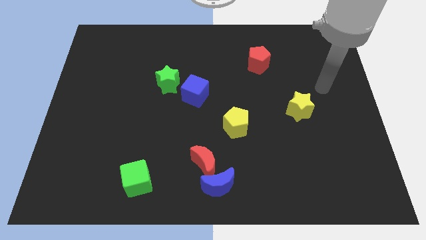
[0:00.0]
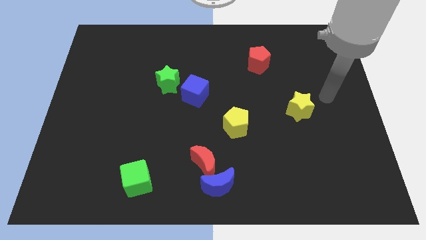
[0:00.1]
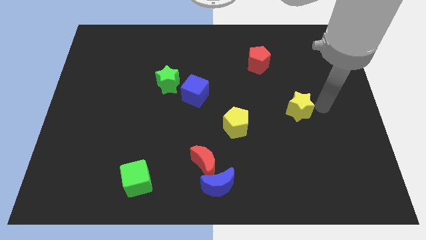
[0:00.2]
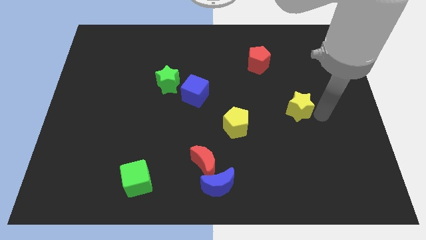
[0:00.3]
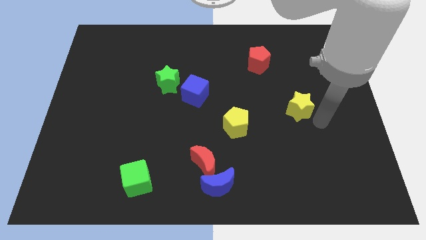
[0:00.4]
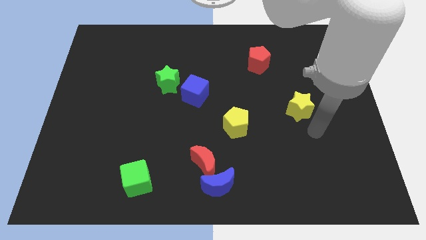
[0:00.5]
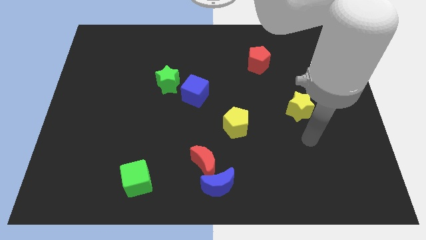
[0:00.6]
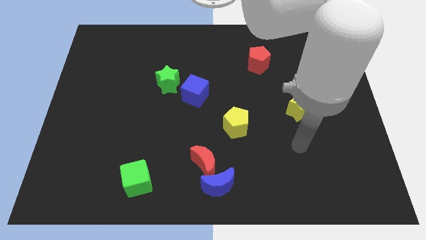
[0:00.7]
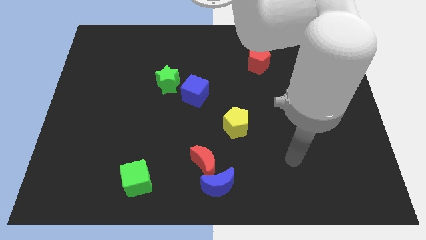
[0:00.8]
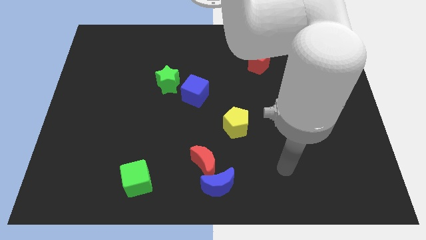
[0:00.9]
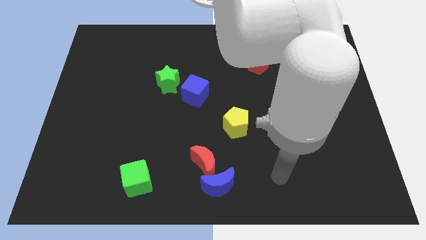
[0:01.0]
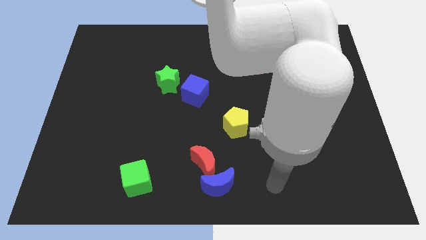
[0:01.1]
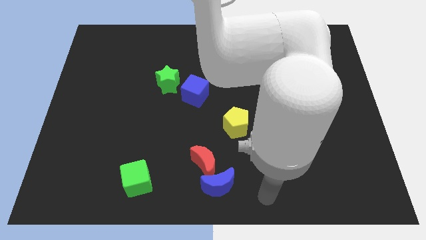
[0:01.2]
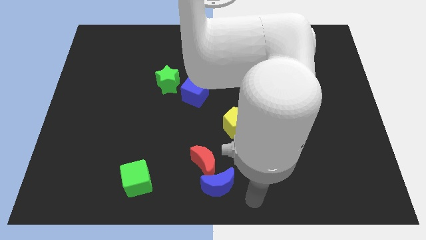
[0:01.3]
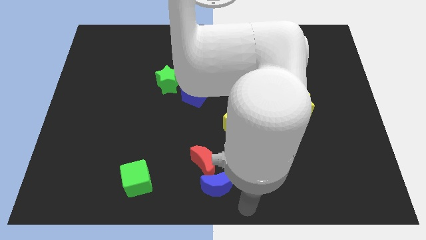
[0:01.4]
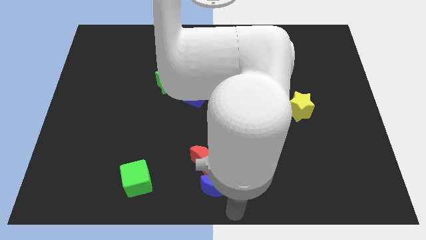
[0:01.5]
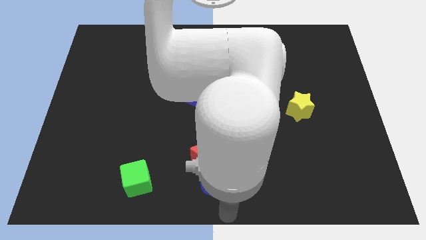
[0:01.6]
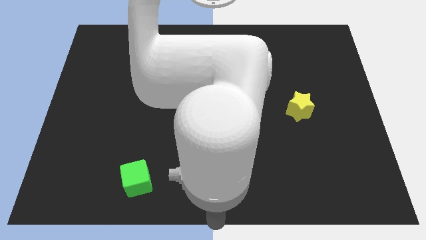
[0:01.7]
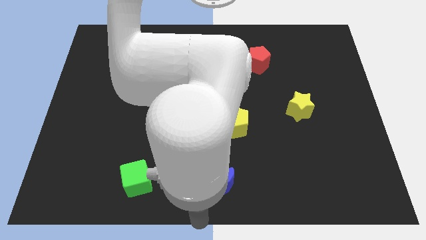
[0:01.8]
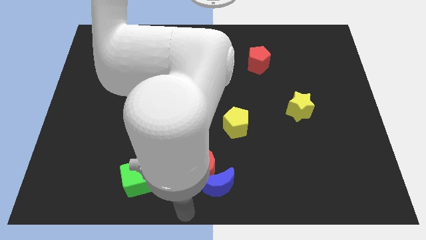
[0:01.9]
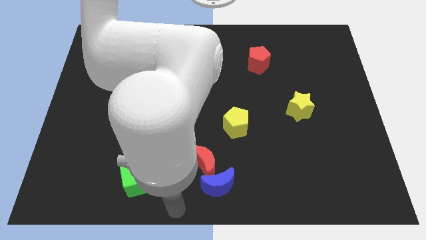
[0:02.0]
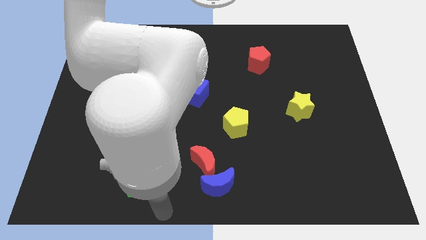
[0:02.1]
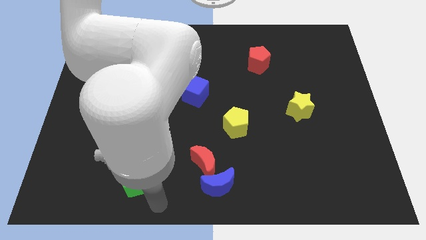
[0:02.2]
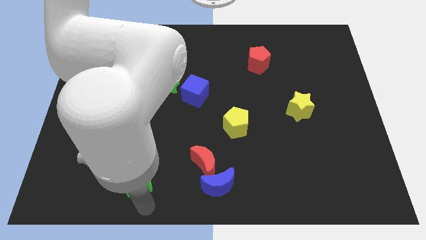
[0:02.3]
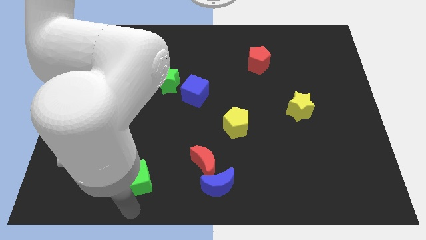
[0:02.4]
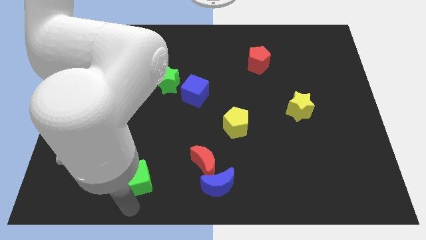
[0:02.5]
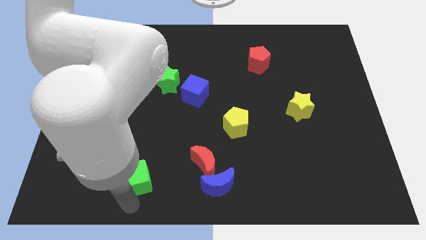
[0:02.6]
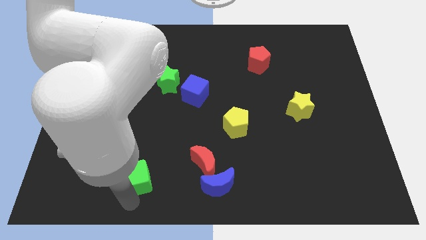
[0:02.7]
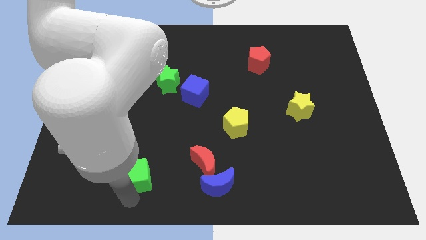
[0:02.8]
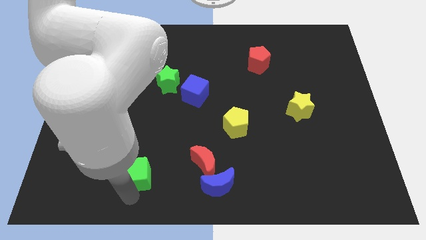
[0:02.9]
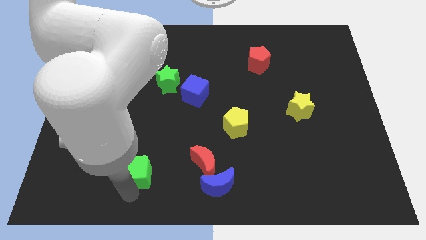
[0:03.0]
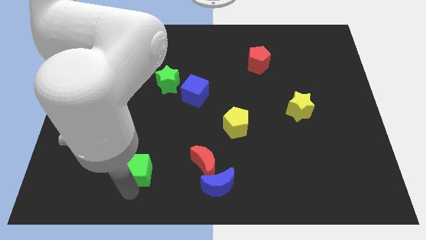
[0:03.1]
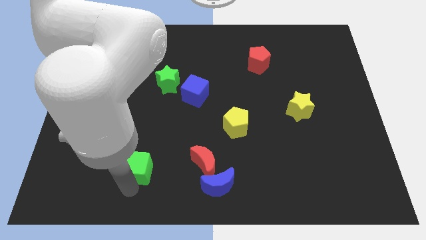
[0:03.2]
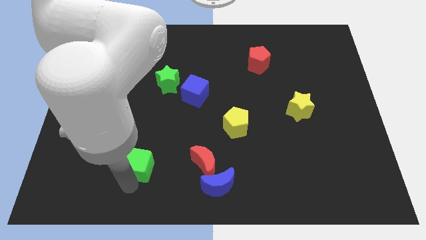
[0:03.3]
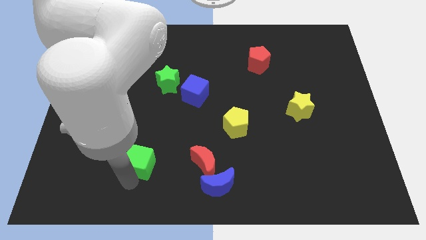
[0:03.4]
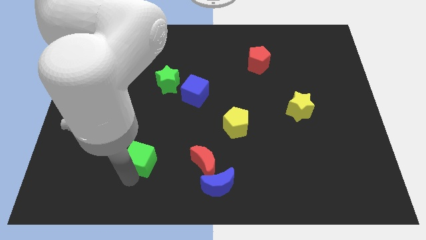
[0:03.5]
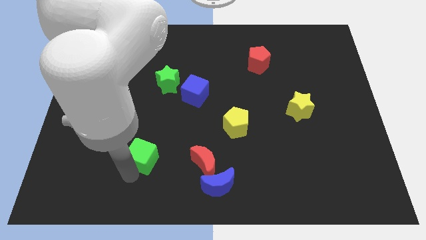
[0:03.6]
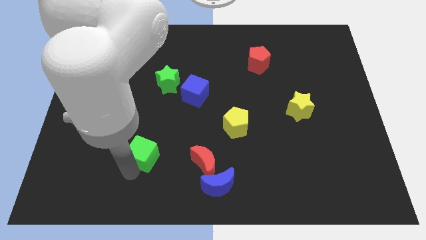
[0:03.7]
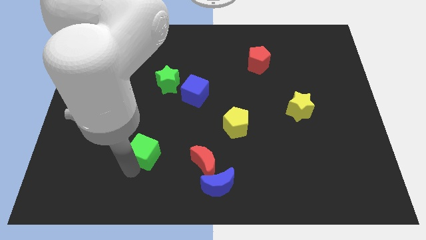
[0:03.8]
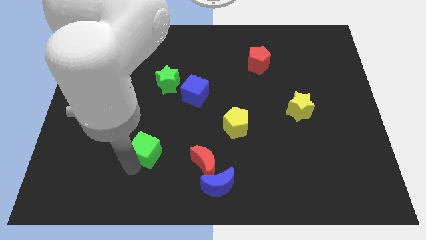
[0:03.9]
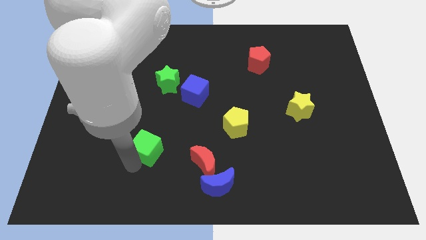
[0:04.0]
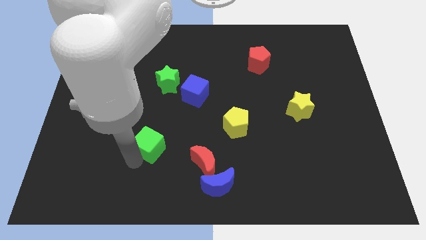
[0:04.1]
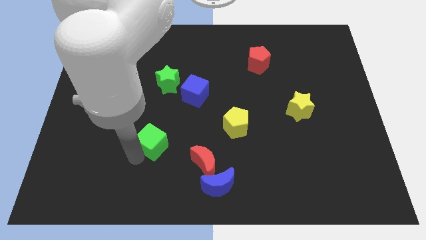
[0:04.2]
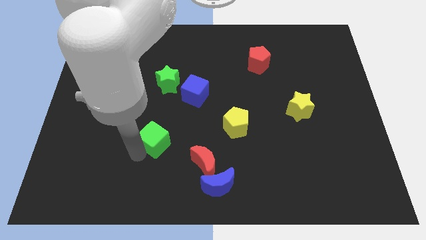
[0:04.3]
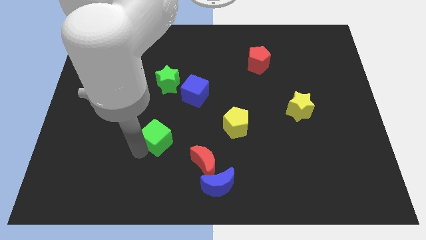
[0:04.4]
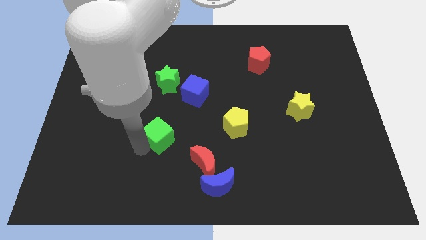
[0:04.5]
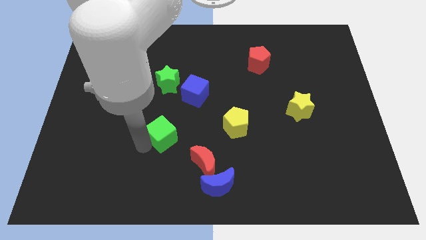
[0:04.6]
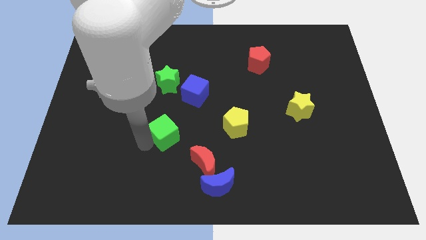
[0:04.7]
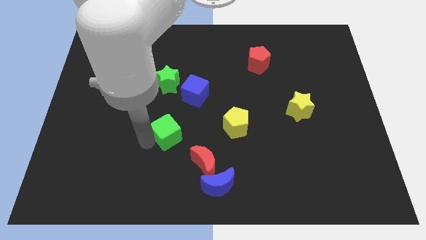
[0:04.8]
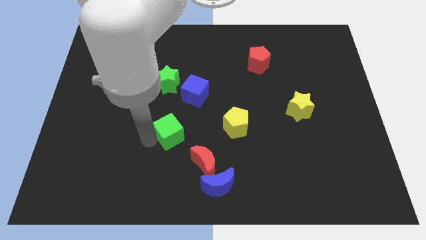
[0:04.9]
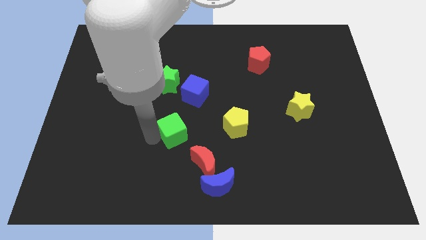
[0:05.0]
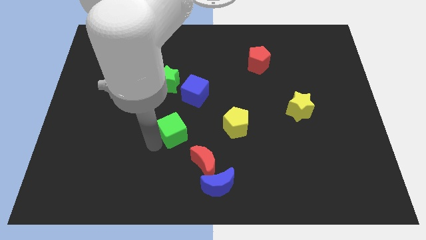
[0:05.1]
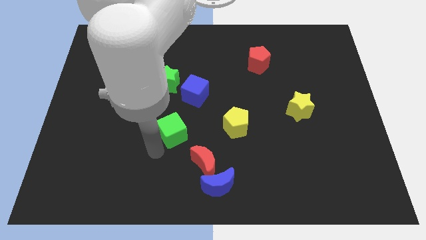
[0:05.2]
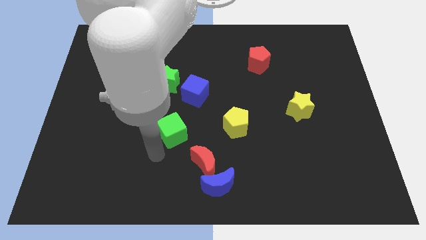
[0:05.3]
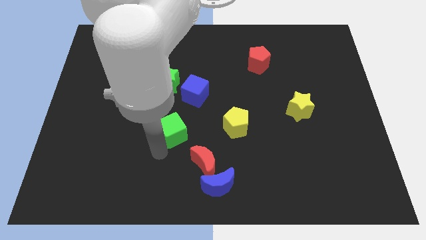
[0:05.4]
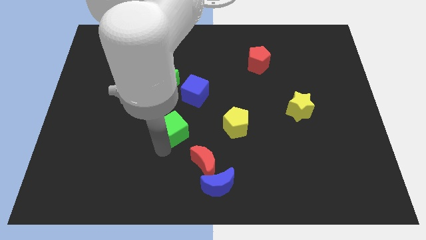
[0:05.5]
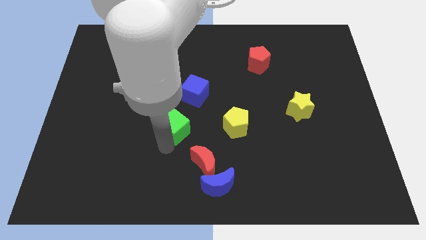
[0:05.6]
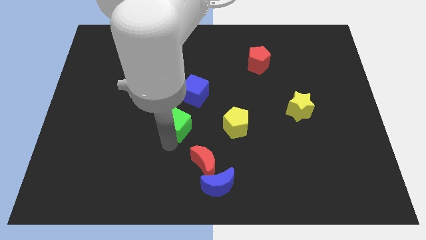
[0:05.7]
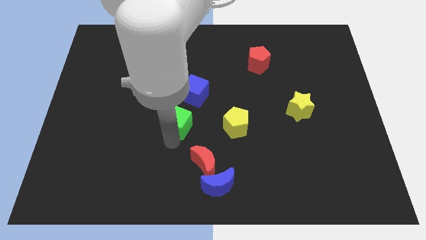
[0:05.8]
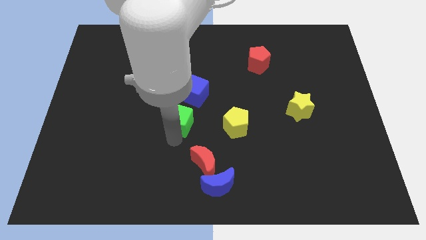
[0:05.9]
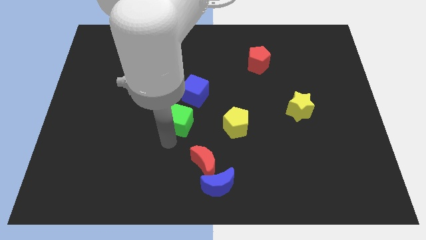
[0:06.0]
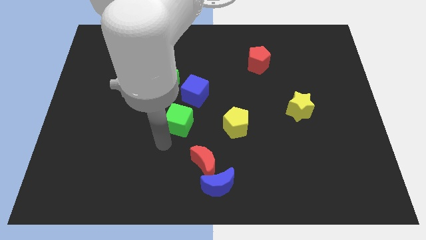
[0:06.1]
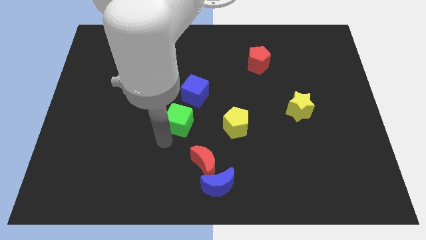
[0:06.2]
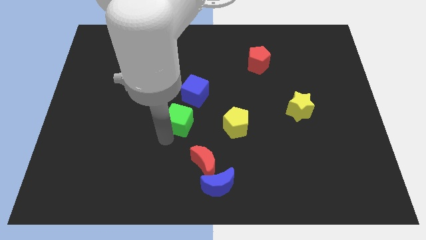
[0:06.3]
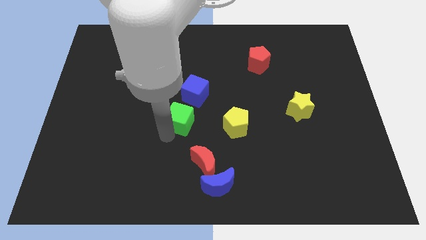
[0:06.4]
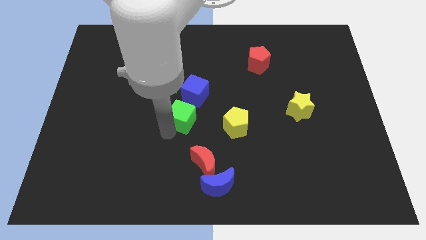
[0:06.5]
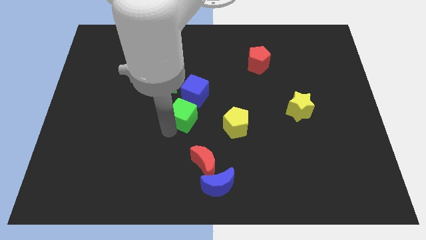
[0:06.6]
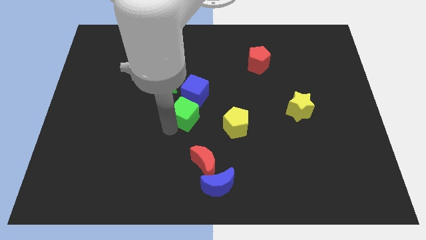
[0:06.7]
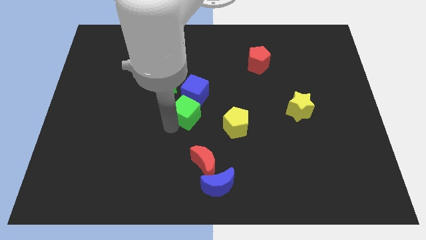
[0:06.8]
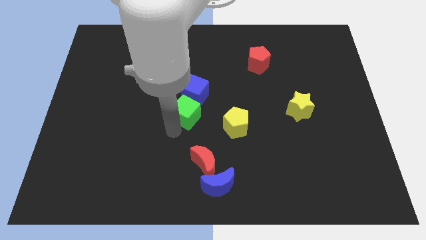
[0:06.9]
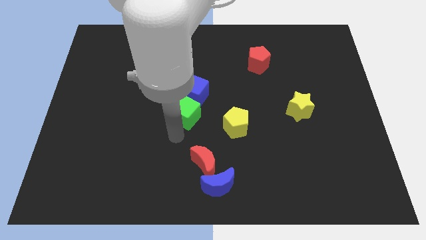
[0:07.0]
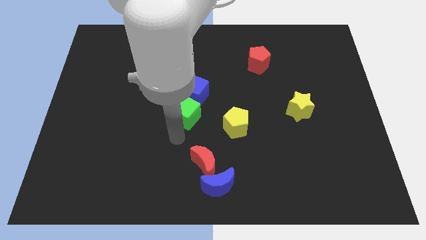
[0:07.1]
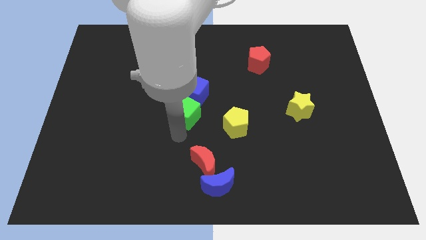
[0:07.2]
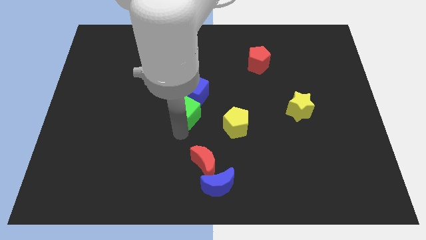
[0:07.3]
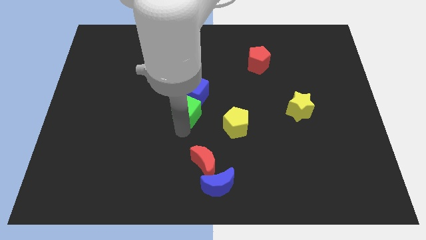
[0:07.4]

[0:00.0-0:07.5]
slide the green cube towards the blue cube
